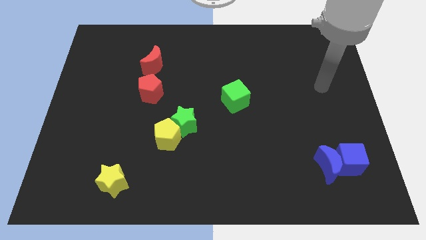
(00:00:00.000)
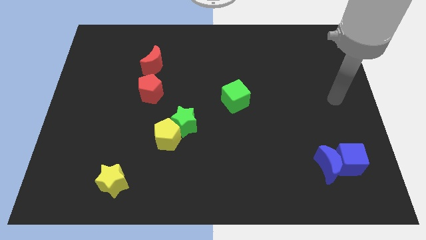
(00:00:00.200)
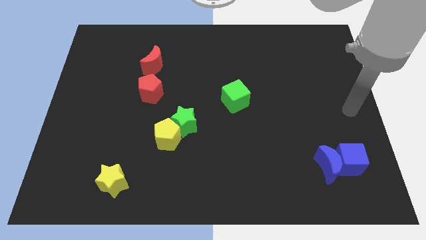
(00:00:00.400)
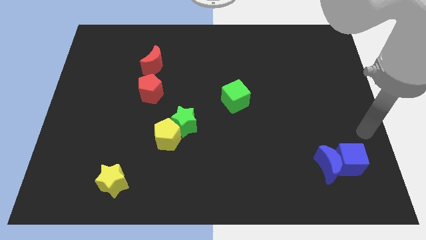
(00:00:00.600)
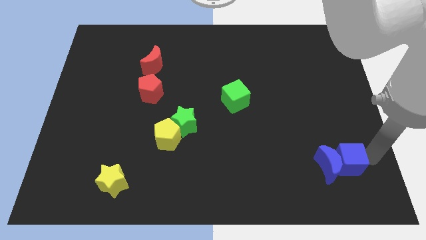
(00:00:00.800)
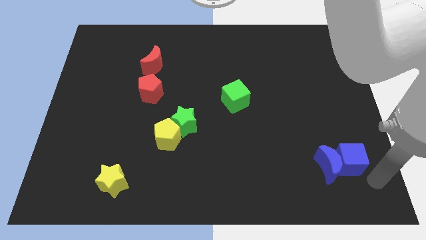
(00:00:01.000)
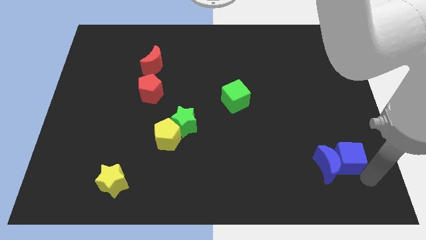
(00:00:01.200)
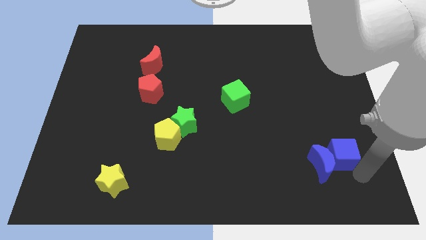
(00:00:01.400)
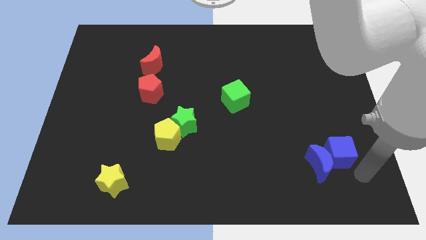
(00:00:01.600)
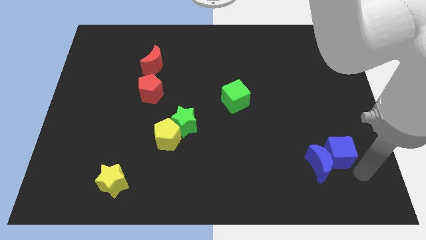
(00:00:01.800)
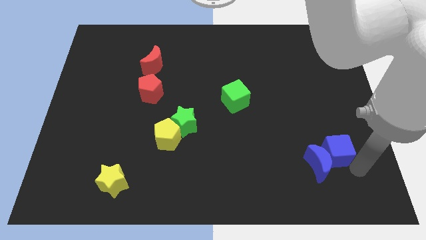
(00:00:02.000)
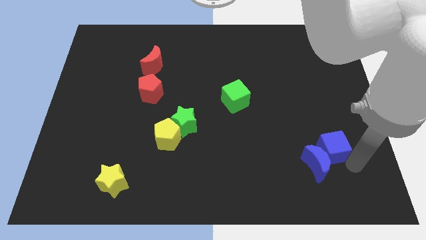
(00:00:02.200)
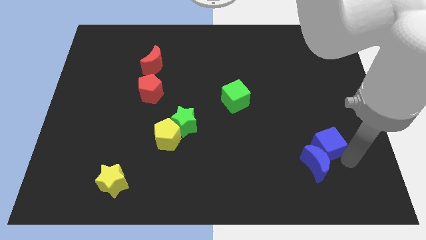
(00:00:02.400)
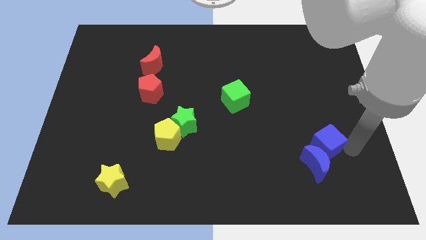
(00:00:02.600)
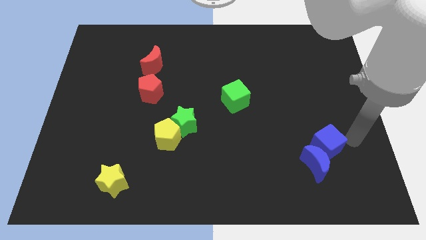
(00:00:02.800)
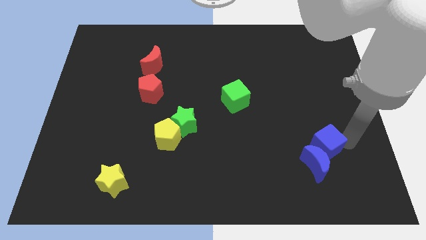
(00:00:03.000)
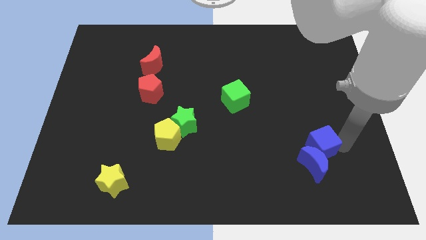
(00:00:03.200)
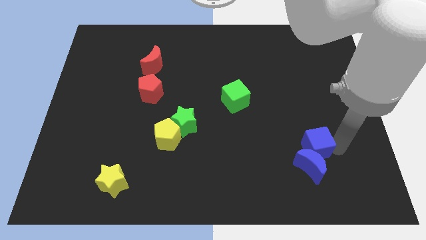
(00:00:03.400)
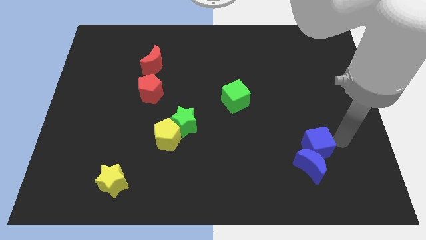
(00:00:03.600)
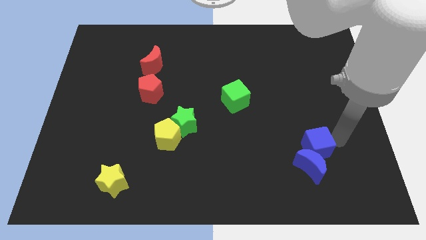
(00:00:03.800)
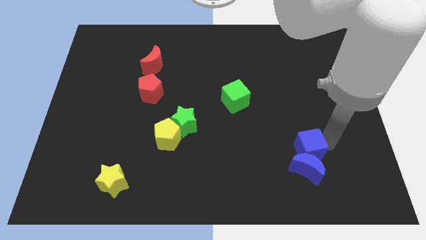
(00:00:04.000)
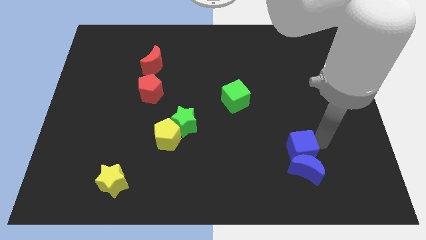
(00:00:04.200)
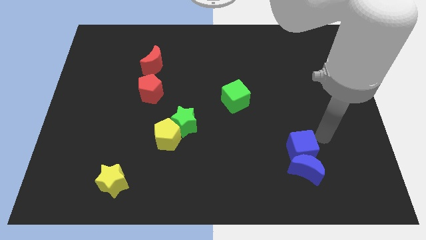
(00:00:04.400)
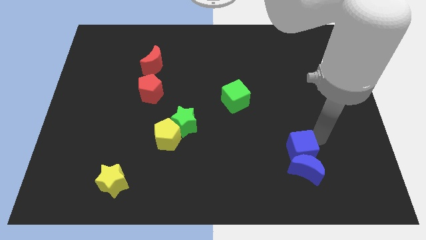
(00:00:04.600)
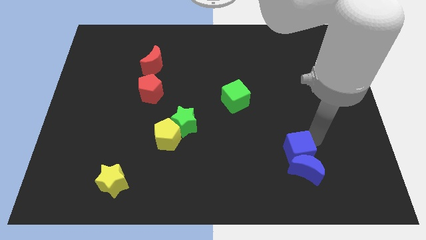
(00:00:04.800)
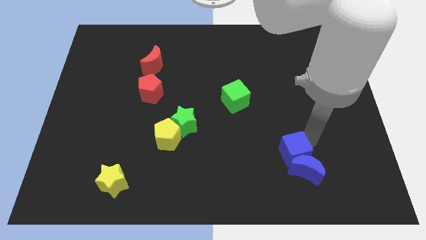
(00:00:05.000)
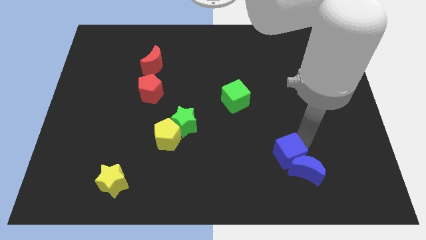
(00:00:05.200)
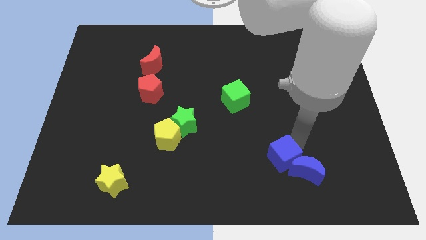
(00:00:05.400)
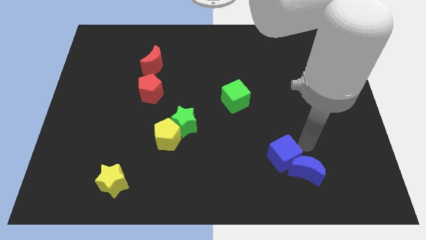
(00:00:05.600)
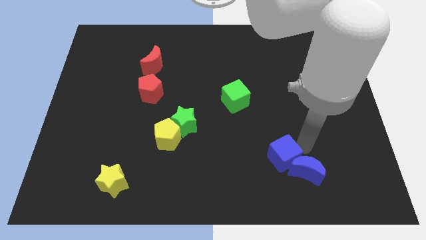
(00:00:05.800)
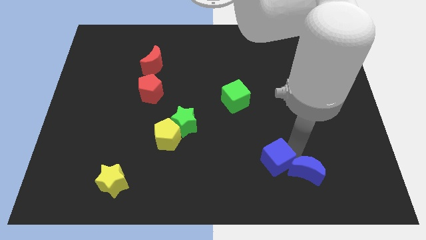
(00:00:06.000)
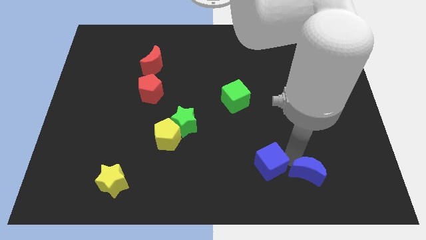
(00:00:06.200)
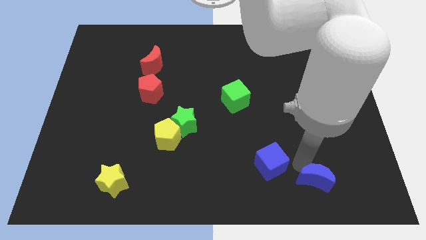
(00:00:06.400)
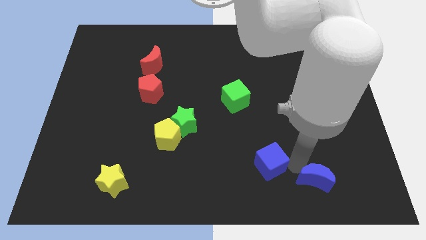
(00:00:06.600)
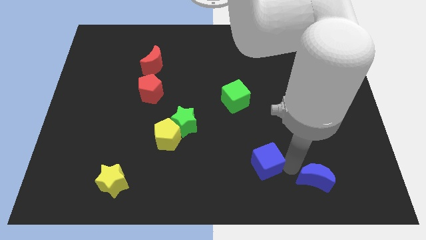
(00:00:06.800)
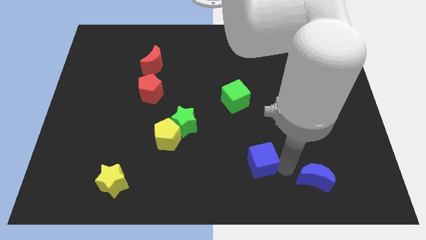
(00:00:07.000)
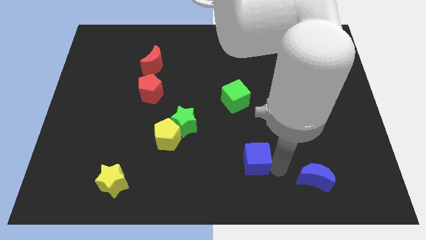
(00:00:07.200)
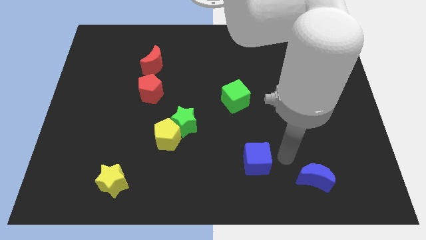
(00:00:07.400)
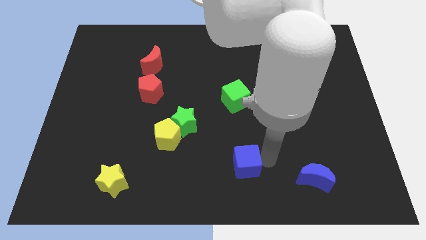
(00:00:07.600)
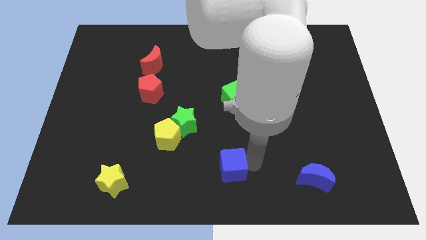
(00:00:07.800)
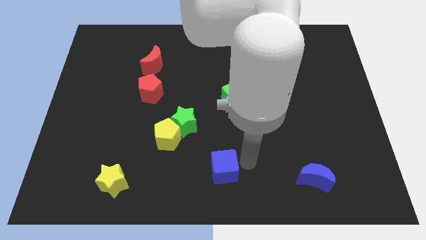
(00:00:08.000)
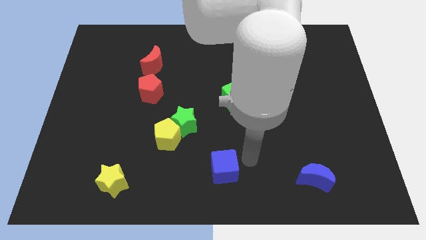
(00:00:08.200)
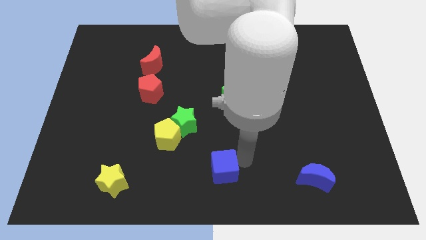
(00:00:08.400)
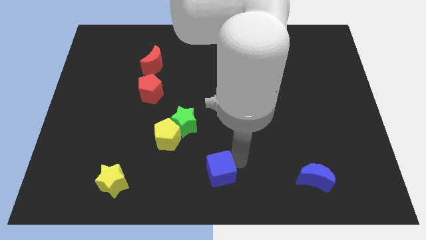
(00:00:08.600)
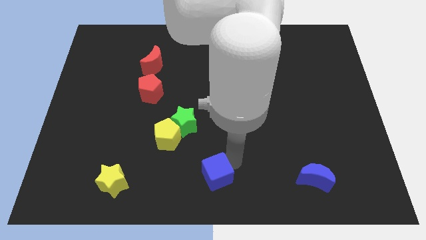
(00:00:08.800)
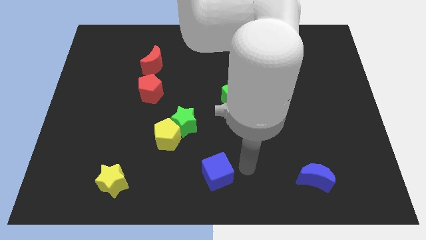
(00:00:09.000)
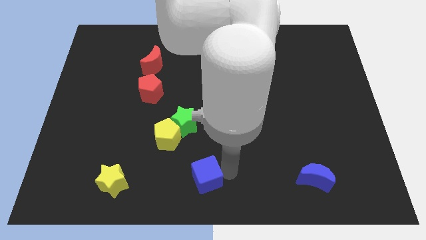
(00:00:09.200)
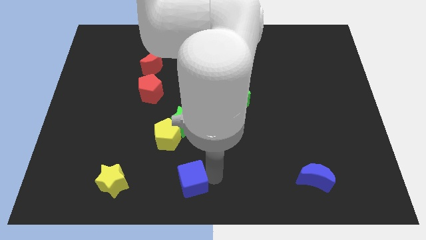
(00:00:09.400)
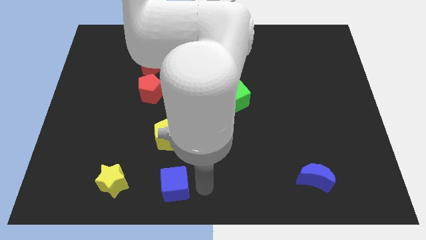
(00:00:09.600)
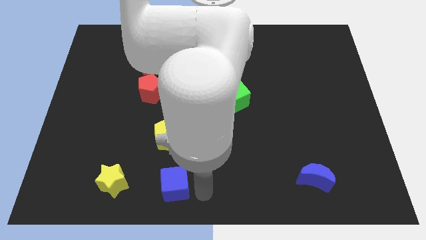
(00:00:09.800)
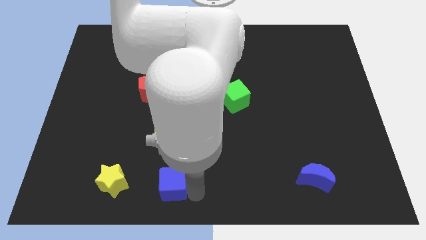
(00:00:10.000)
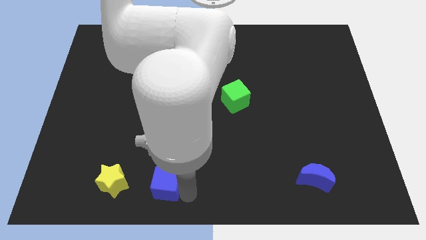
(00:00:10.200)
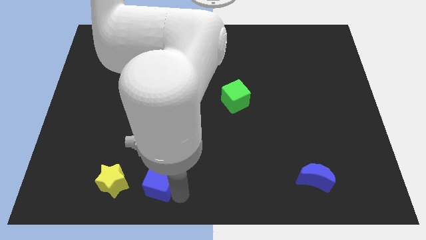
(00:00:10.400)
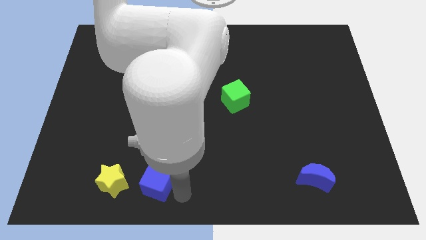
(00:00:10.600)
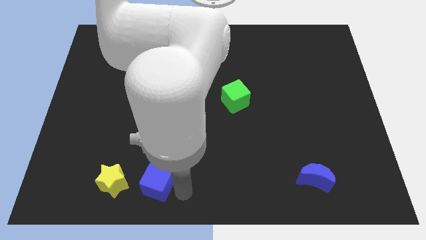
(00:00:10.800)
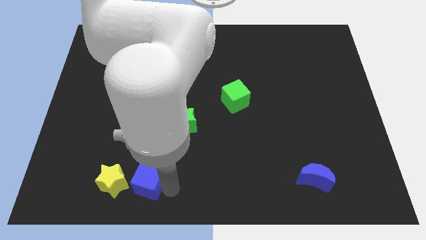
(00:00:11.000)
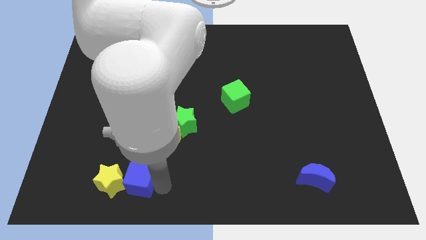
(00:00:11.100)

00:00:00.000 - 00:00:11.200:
push the blue cube towards the yellow star

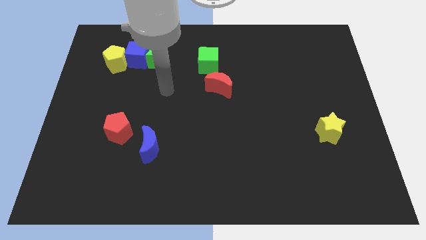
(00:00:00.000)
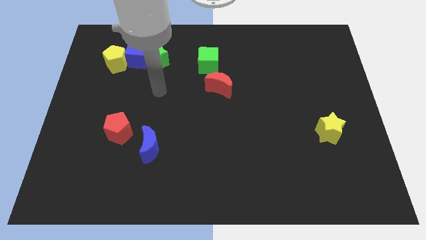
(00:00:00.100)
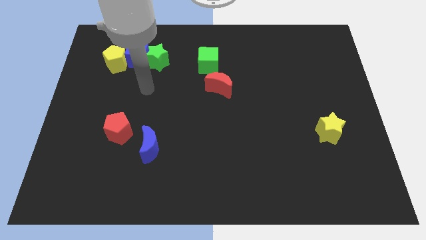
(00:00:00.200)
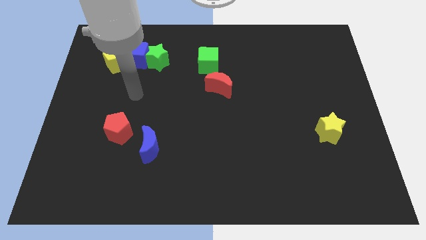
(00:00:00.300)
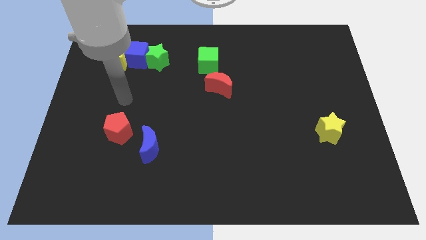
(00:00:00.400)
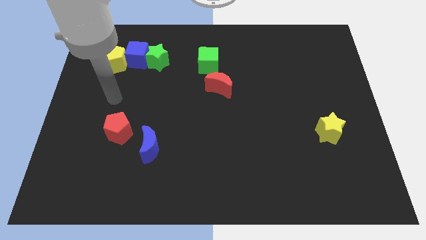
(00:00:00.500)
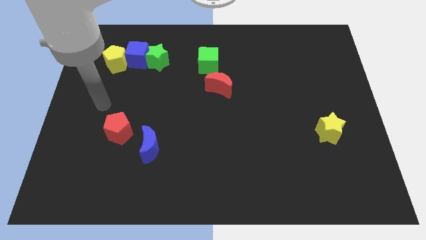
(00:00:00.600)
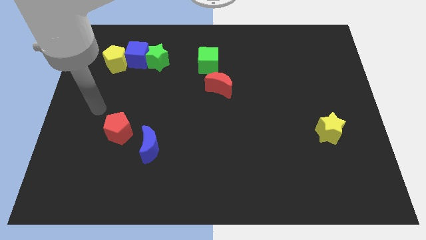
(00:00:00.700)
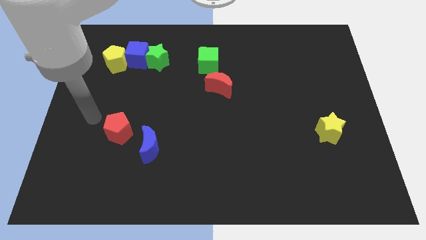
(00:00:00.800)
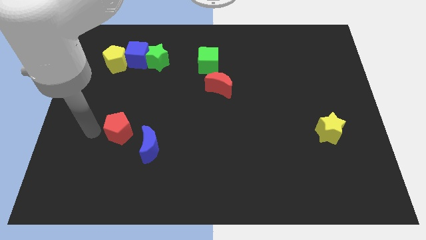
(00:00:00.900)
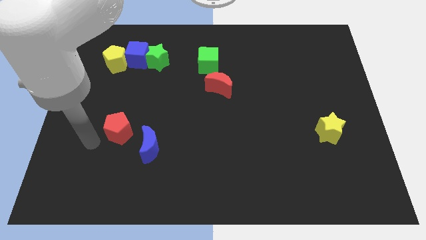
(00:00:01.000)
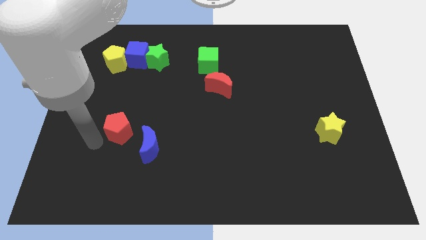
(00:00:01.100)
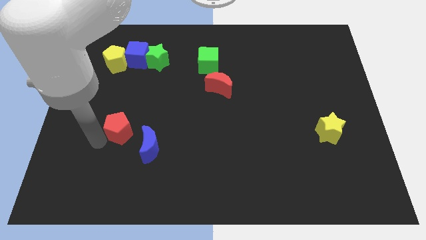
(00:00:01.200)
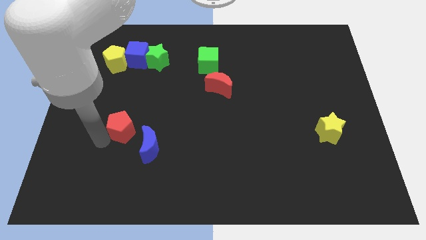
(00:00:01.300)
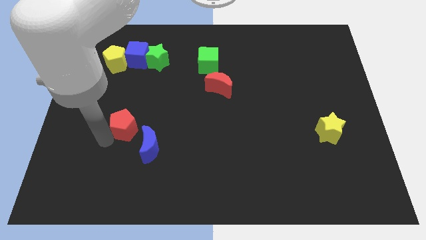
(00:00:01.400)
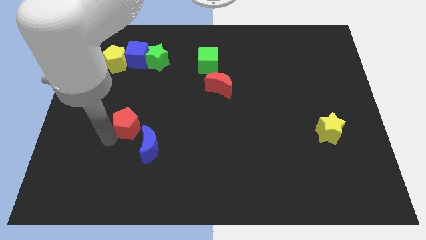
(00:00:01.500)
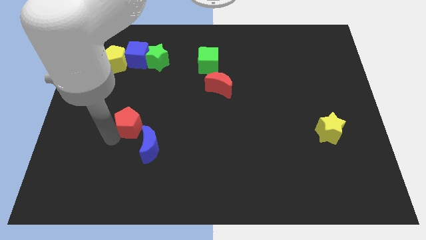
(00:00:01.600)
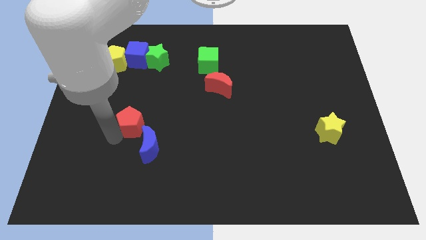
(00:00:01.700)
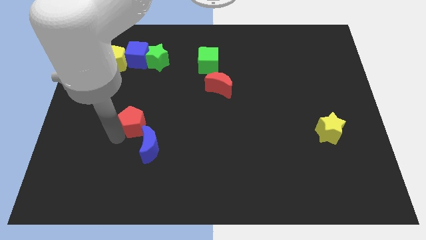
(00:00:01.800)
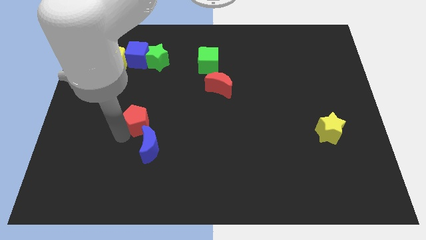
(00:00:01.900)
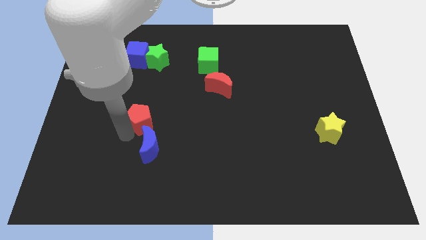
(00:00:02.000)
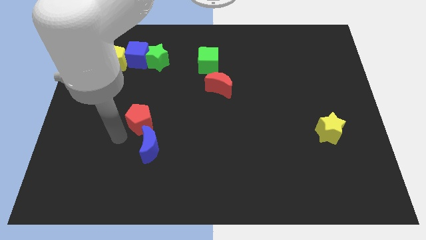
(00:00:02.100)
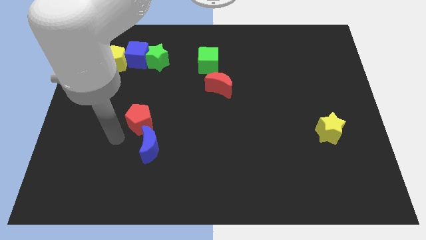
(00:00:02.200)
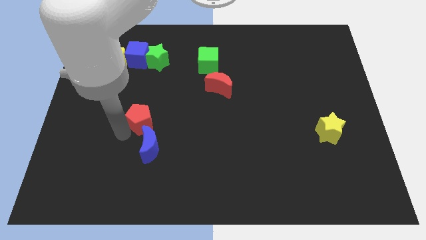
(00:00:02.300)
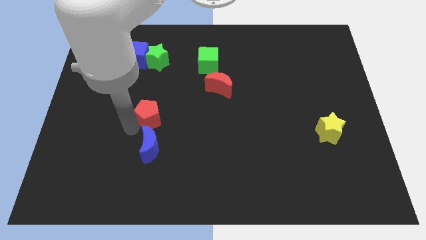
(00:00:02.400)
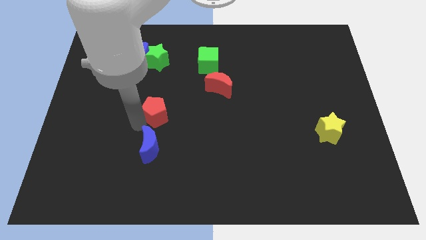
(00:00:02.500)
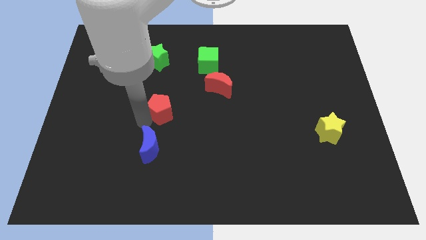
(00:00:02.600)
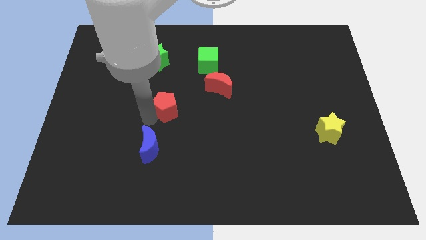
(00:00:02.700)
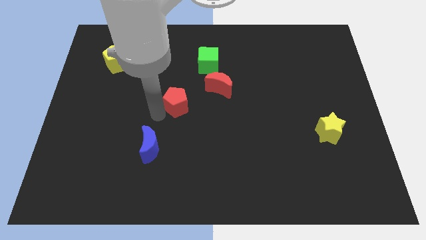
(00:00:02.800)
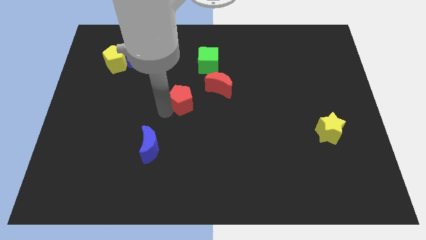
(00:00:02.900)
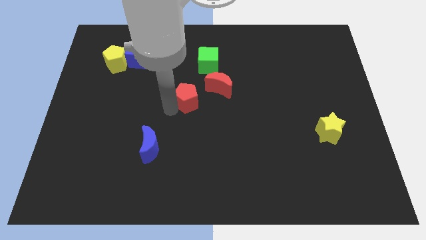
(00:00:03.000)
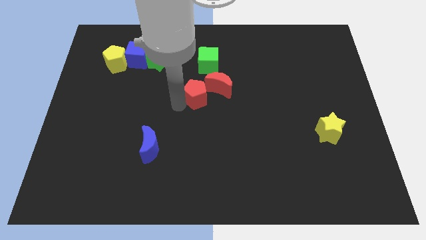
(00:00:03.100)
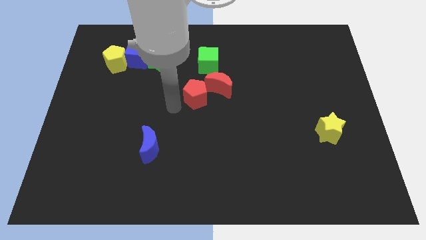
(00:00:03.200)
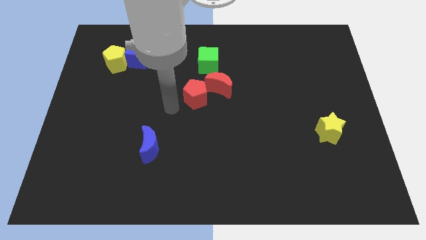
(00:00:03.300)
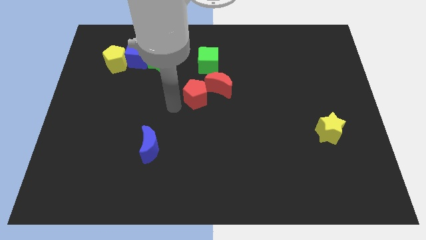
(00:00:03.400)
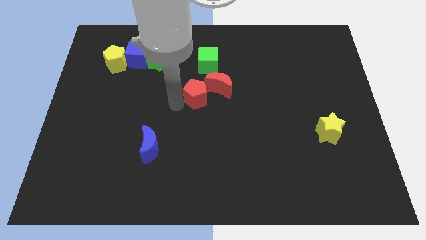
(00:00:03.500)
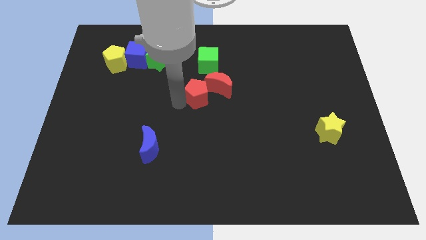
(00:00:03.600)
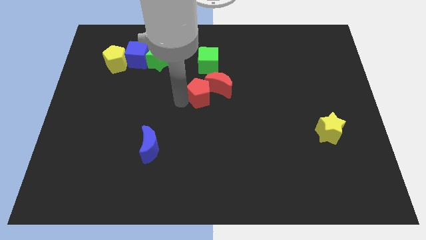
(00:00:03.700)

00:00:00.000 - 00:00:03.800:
move the red pentagon towards the red moon
